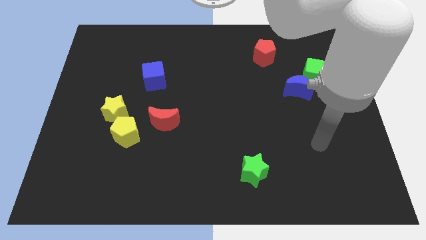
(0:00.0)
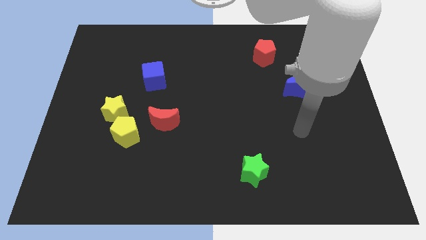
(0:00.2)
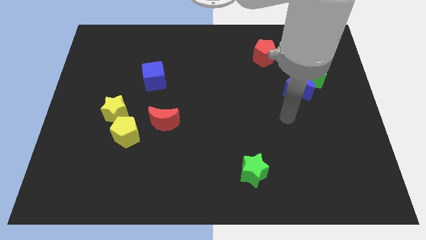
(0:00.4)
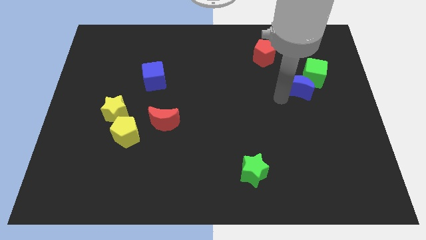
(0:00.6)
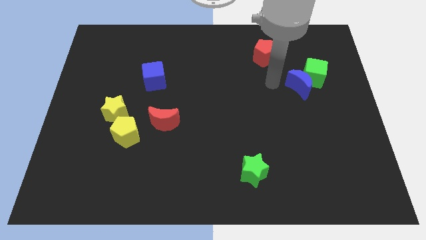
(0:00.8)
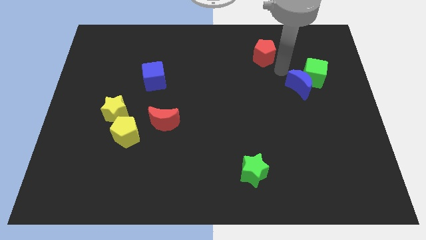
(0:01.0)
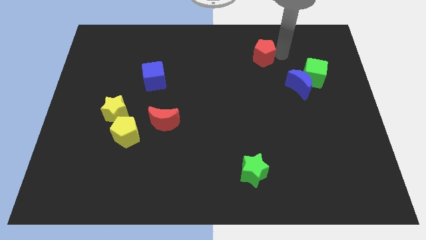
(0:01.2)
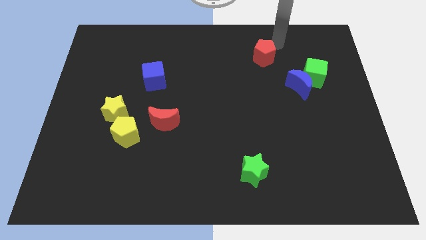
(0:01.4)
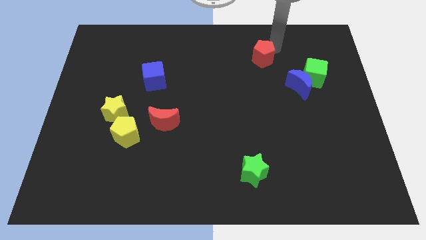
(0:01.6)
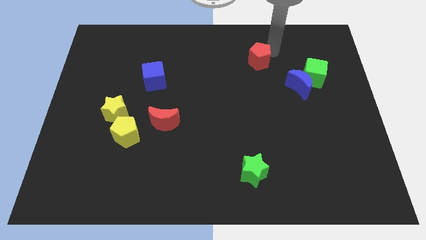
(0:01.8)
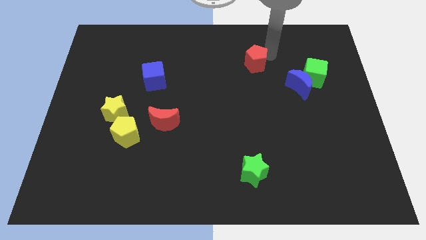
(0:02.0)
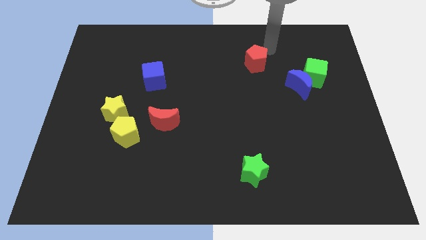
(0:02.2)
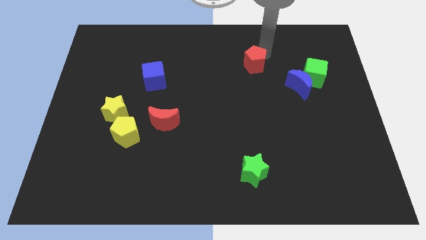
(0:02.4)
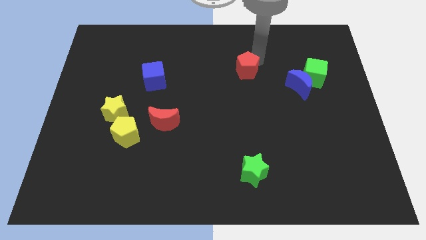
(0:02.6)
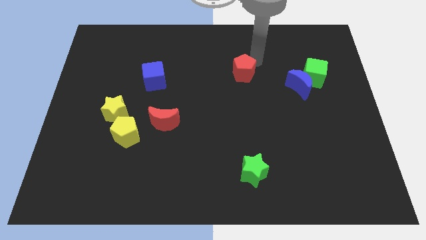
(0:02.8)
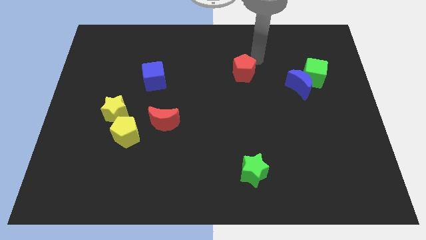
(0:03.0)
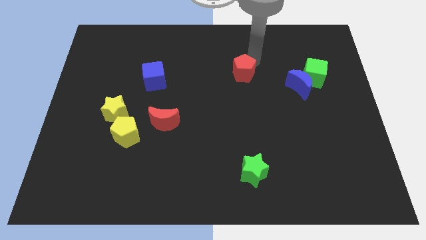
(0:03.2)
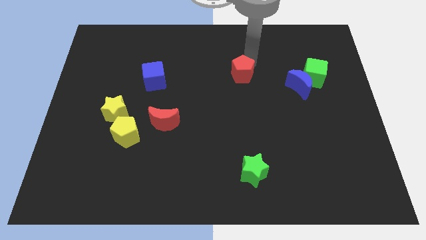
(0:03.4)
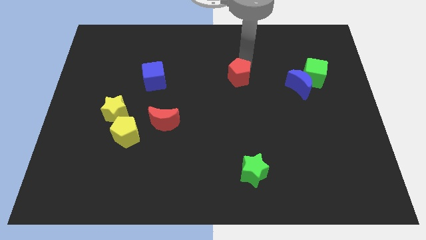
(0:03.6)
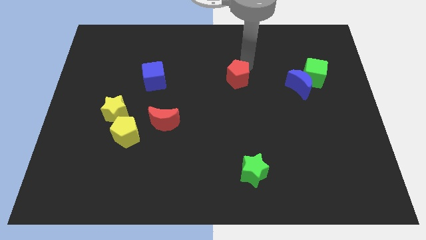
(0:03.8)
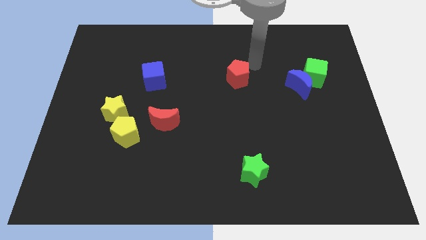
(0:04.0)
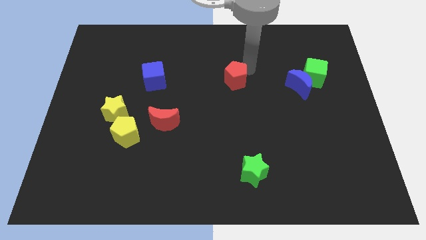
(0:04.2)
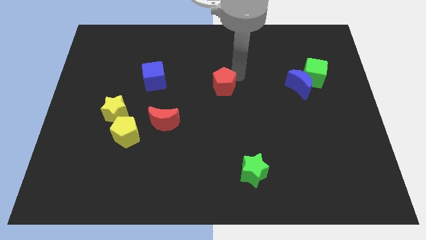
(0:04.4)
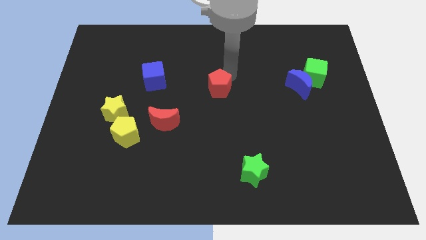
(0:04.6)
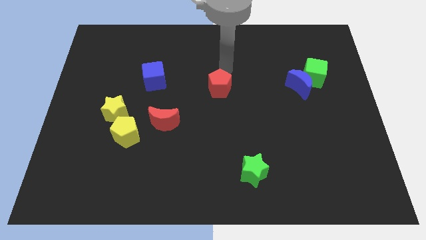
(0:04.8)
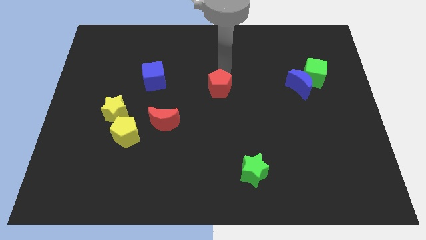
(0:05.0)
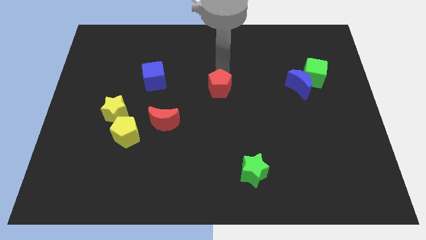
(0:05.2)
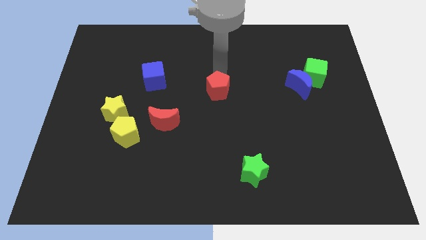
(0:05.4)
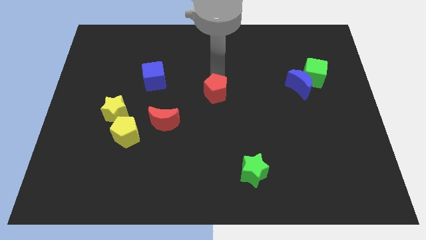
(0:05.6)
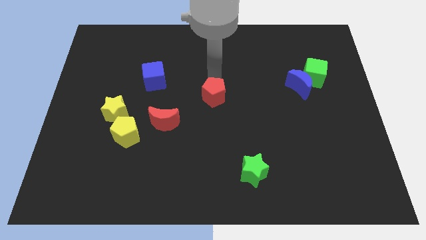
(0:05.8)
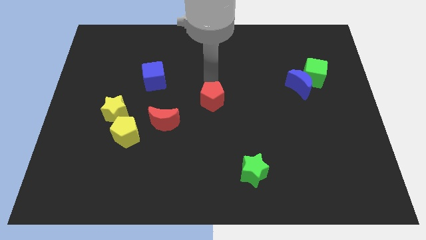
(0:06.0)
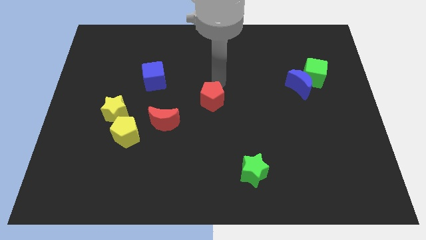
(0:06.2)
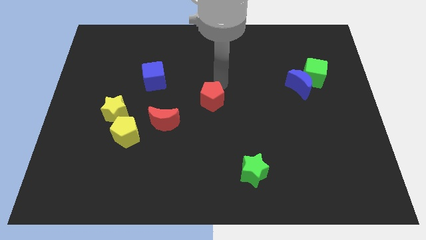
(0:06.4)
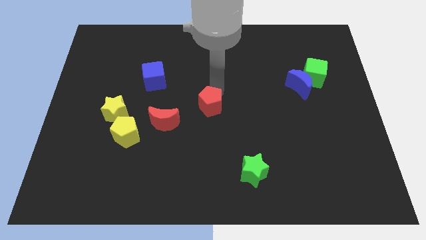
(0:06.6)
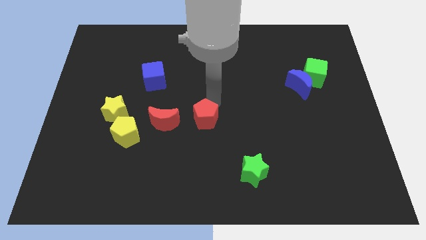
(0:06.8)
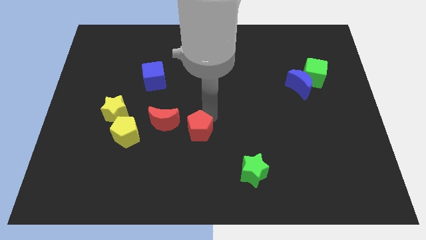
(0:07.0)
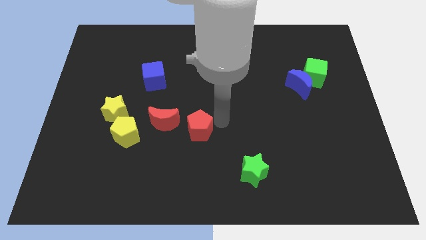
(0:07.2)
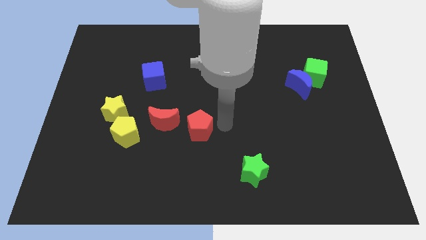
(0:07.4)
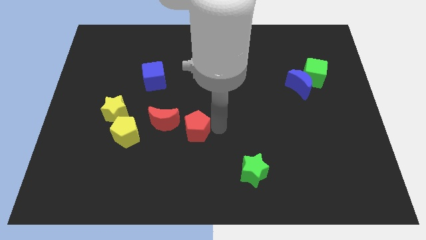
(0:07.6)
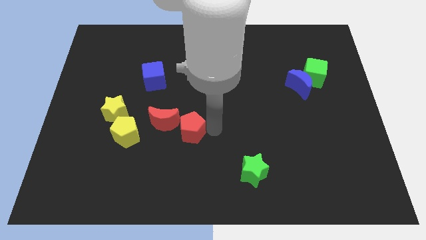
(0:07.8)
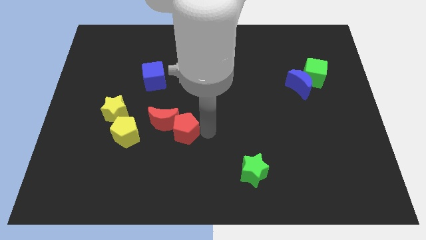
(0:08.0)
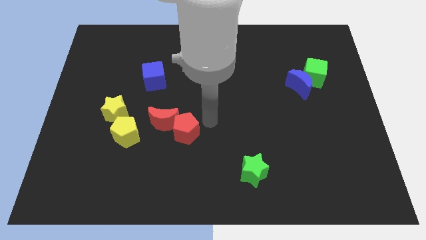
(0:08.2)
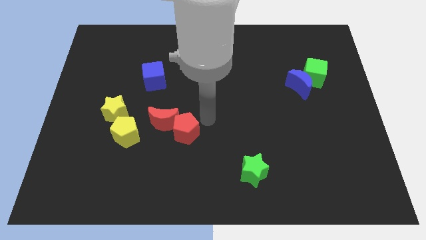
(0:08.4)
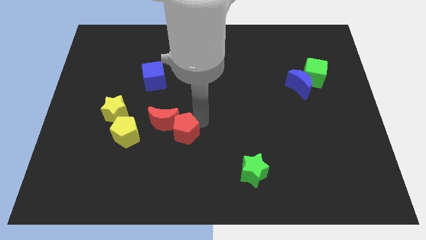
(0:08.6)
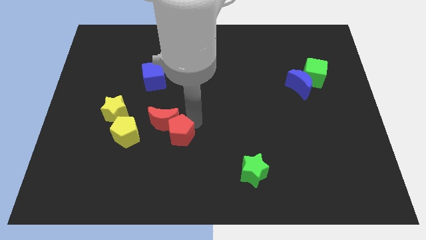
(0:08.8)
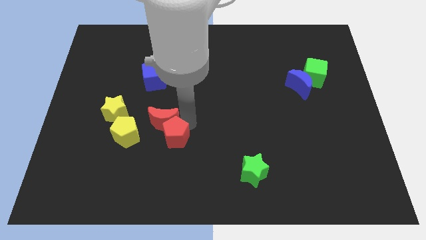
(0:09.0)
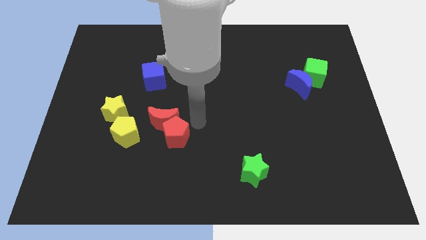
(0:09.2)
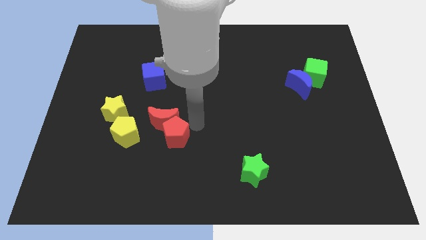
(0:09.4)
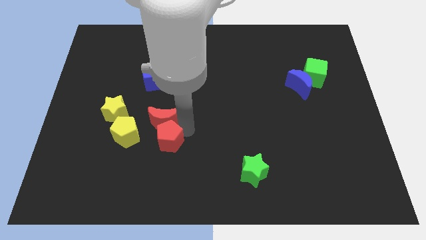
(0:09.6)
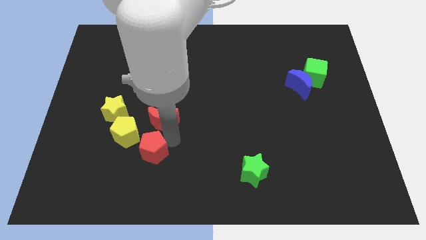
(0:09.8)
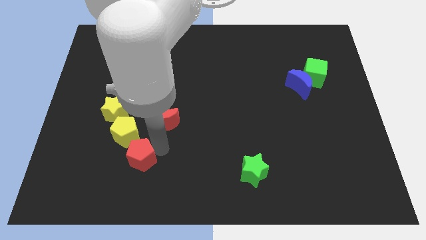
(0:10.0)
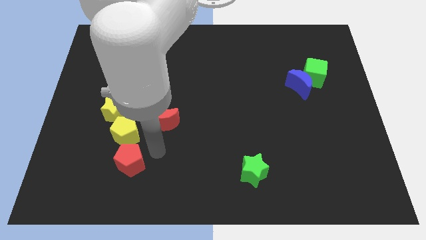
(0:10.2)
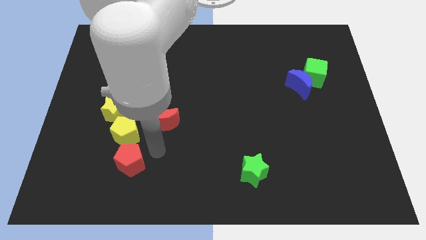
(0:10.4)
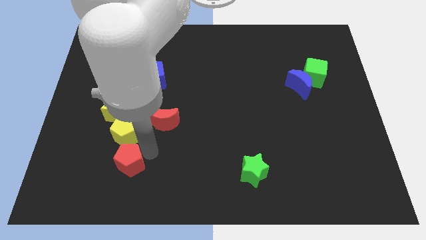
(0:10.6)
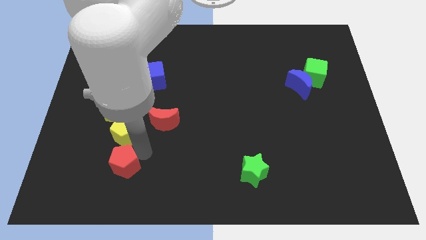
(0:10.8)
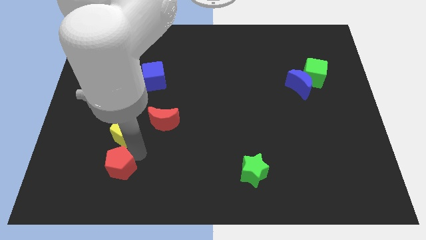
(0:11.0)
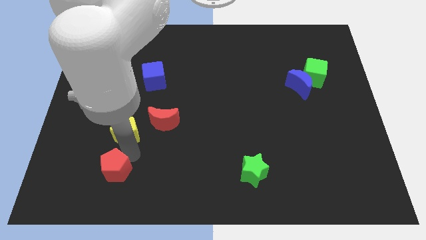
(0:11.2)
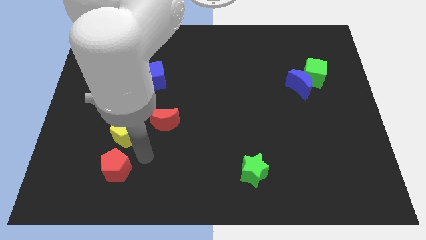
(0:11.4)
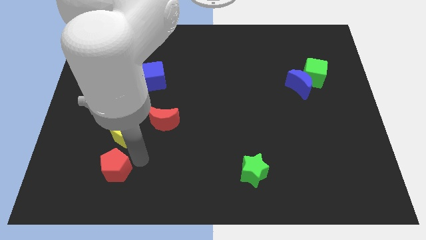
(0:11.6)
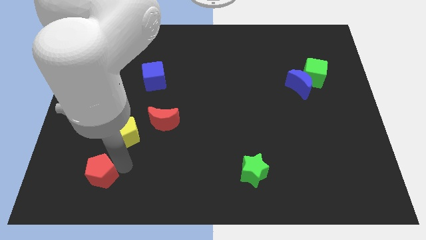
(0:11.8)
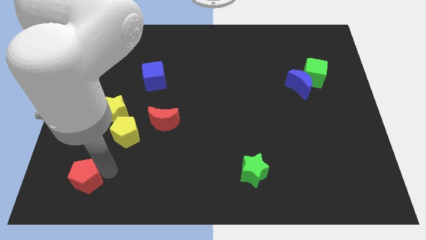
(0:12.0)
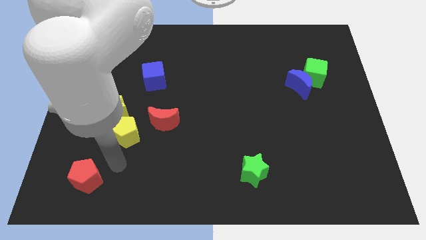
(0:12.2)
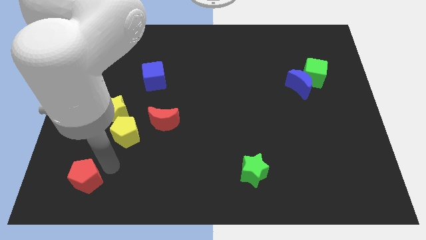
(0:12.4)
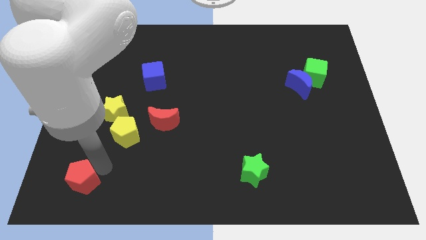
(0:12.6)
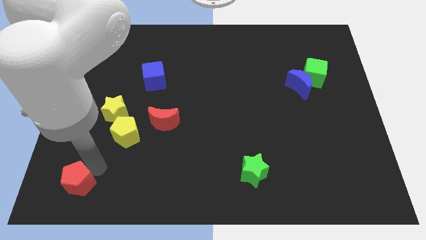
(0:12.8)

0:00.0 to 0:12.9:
move the red pentagon to the bottom left corner
